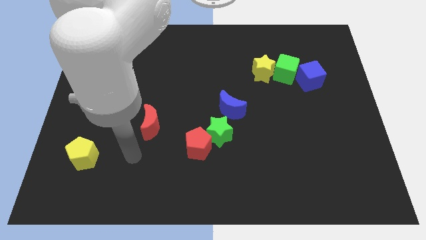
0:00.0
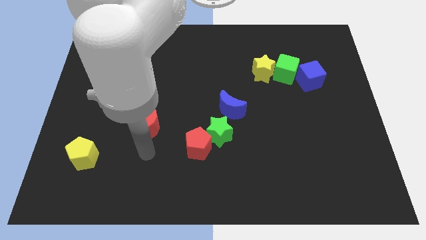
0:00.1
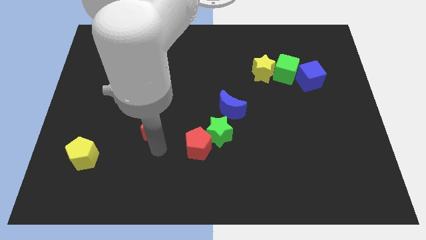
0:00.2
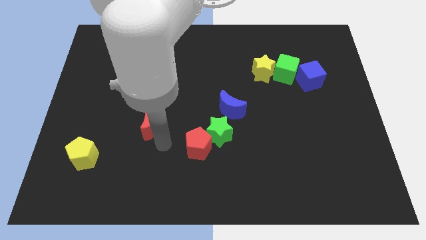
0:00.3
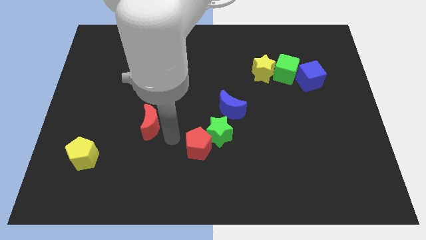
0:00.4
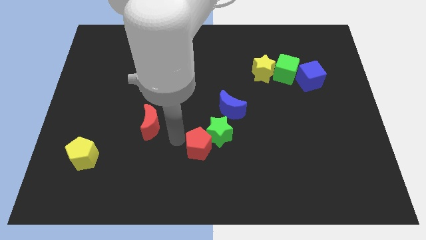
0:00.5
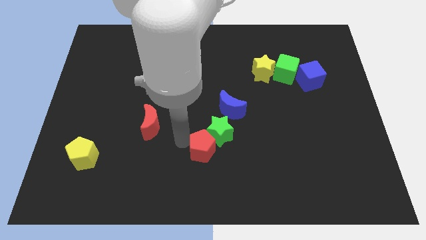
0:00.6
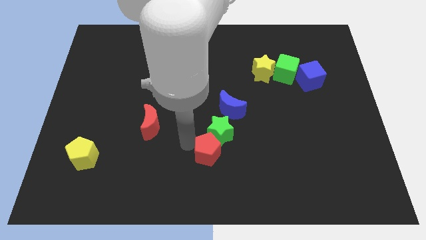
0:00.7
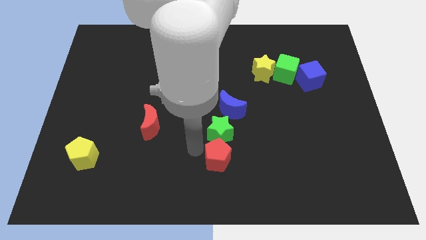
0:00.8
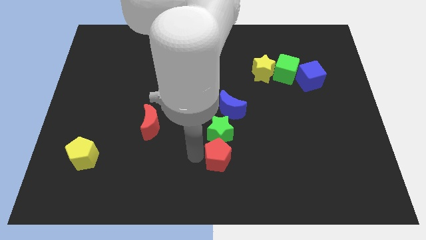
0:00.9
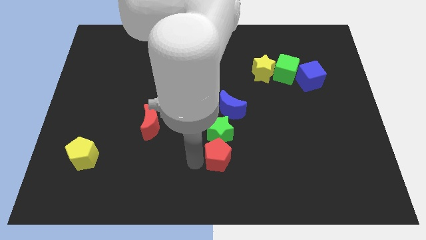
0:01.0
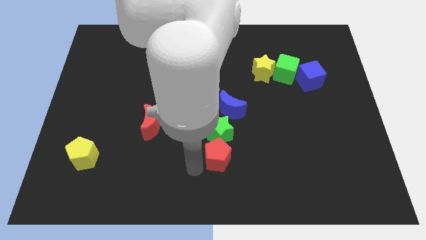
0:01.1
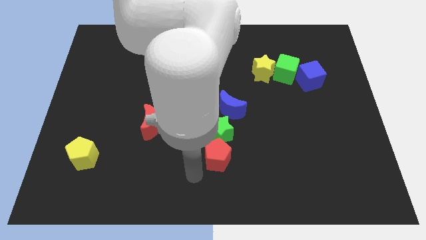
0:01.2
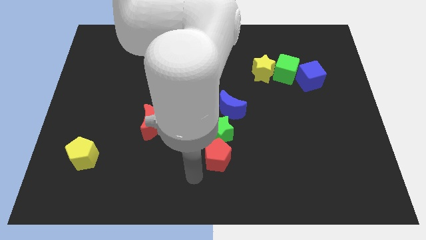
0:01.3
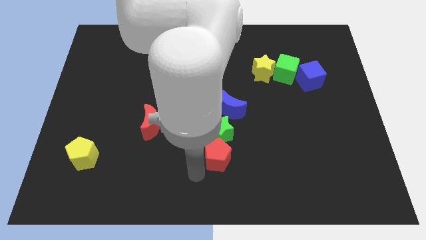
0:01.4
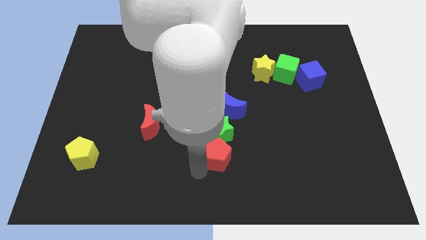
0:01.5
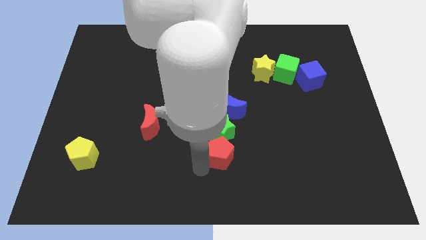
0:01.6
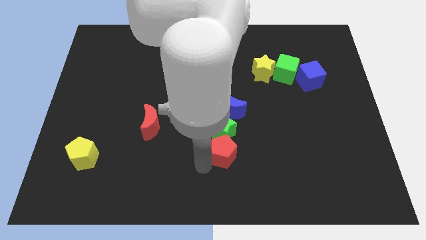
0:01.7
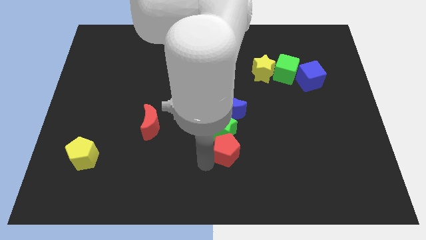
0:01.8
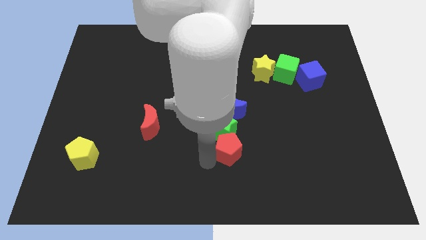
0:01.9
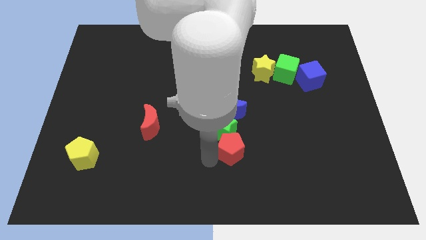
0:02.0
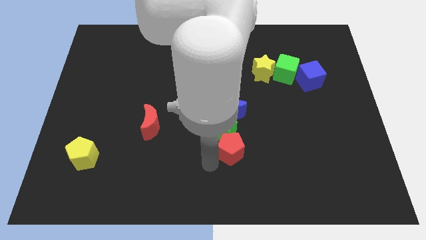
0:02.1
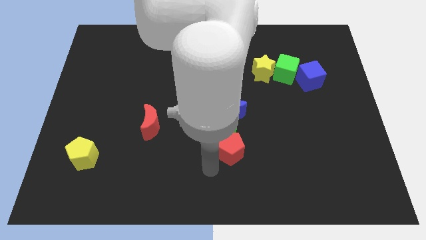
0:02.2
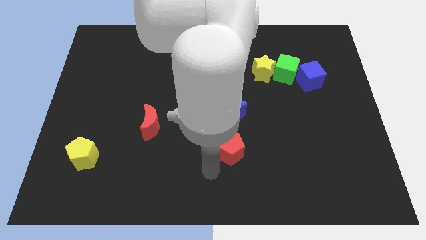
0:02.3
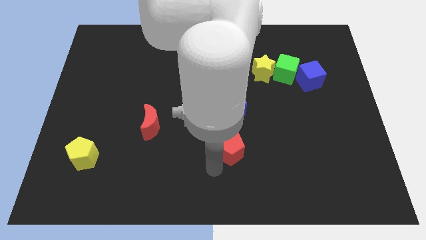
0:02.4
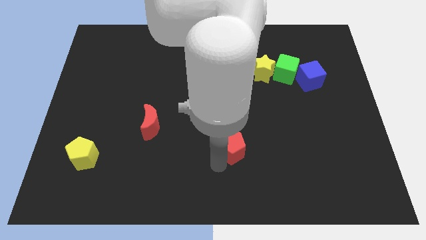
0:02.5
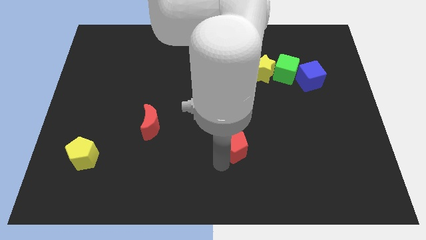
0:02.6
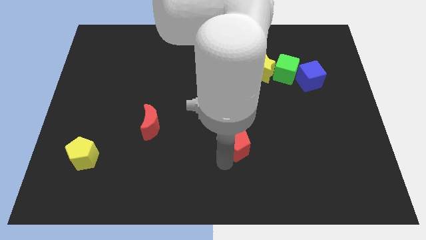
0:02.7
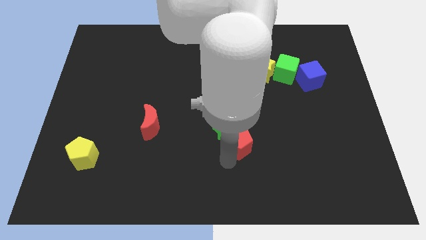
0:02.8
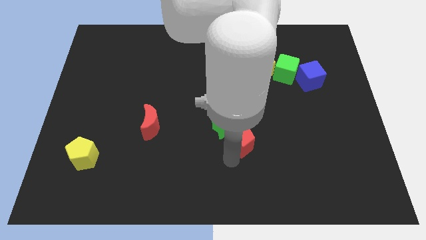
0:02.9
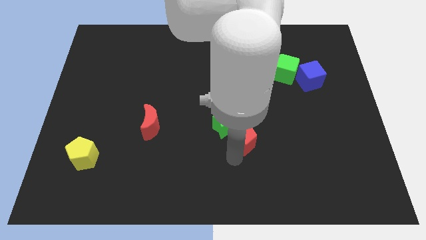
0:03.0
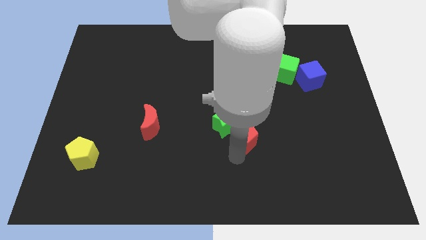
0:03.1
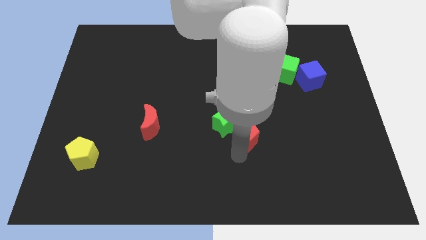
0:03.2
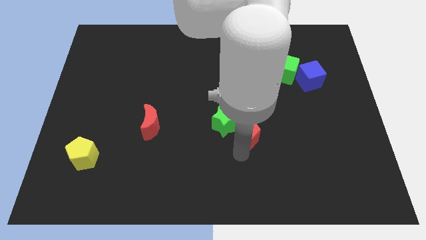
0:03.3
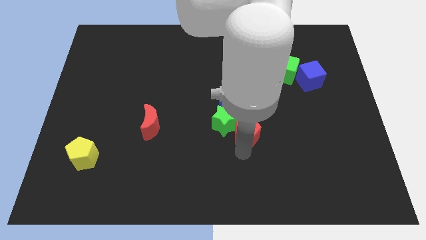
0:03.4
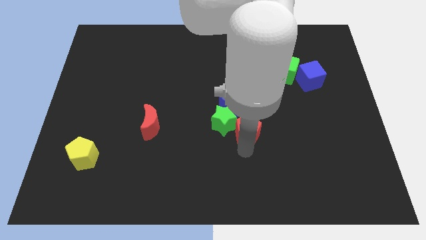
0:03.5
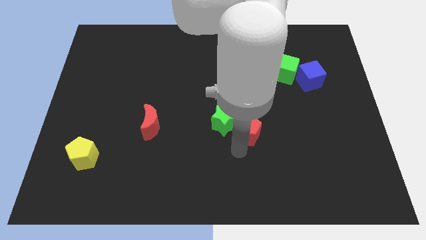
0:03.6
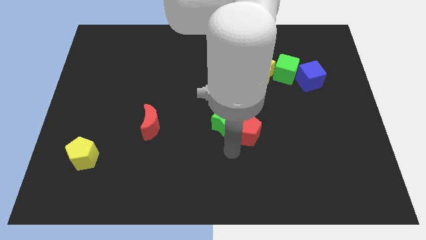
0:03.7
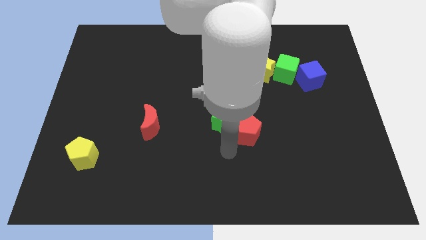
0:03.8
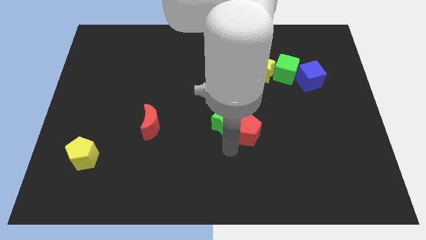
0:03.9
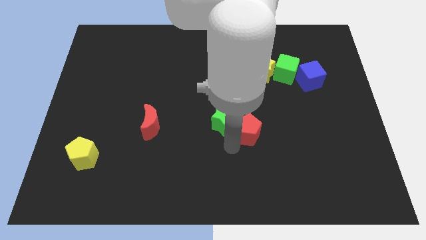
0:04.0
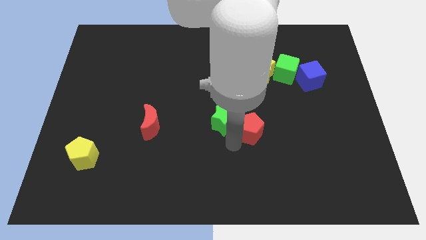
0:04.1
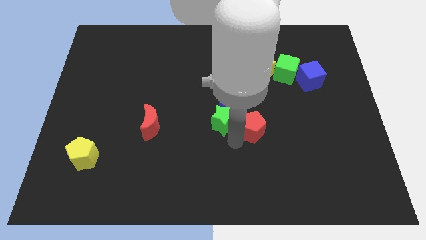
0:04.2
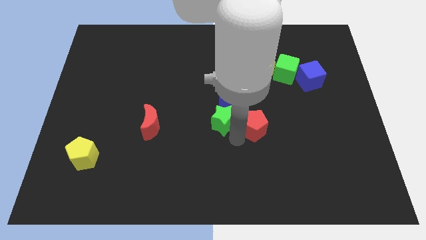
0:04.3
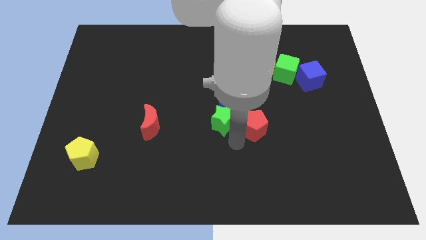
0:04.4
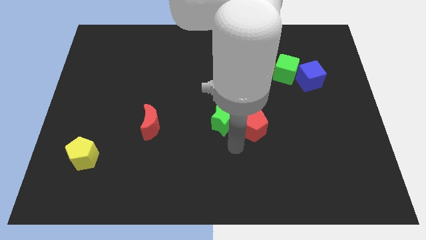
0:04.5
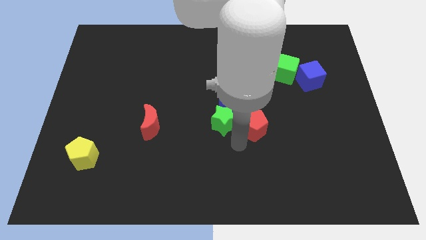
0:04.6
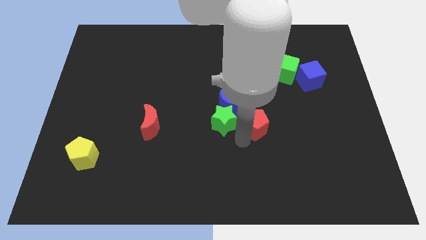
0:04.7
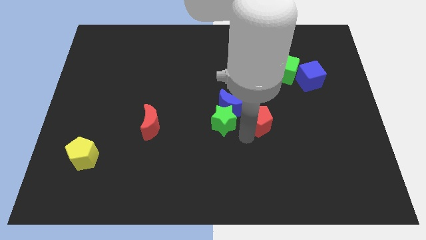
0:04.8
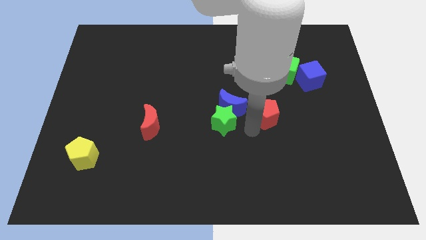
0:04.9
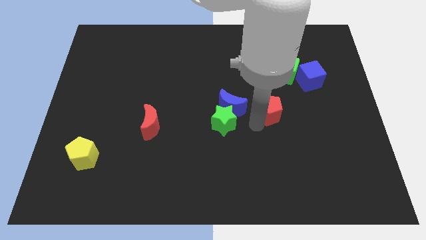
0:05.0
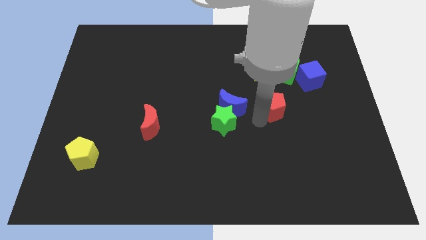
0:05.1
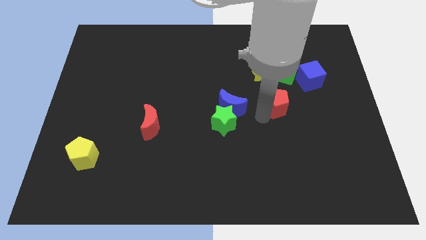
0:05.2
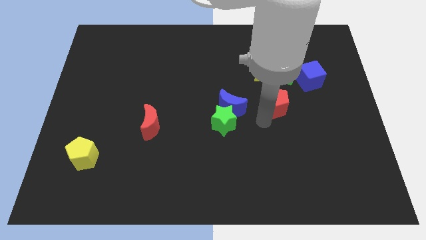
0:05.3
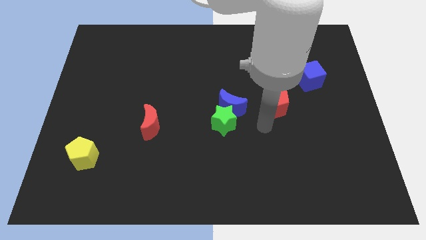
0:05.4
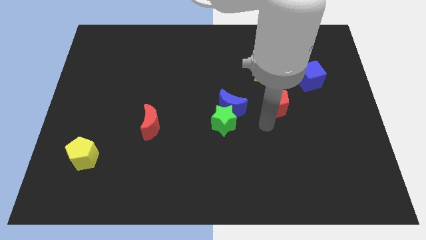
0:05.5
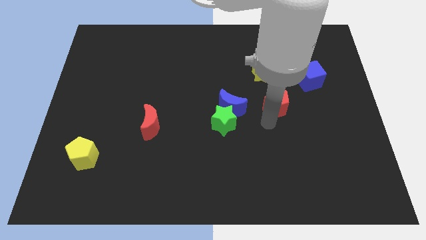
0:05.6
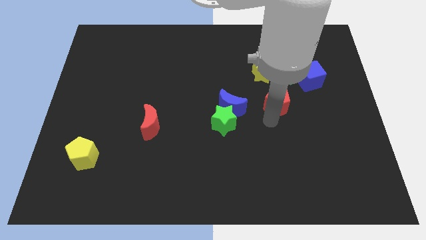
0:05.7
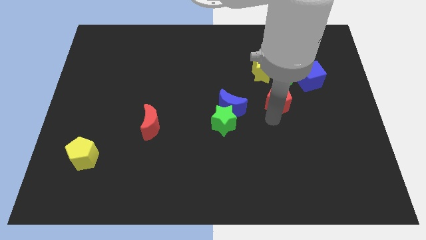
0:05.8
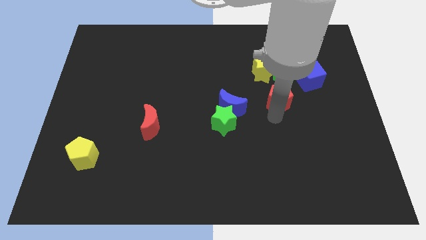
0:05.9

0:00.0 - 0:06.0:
put the red pentagon diagonally down and to the right of the yellow star
